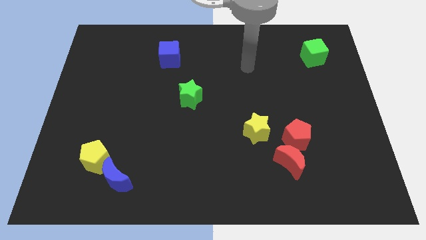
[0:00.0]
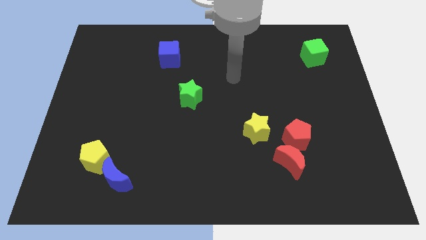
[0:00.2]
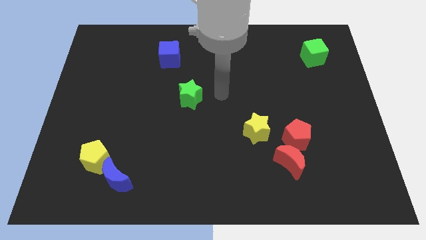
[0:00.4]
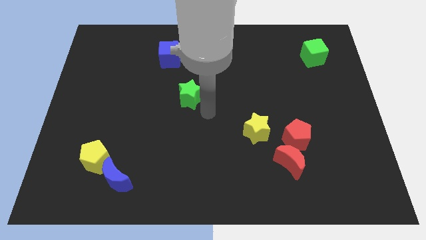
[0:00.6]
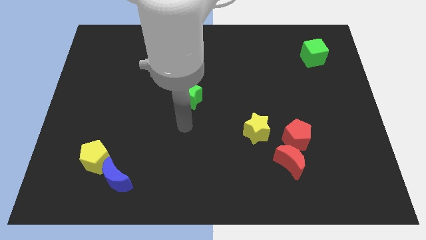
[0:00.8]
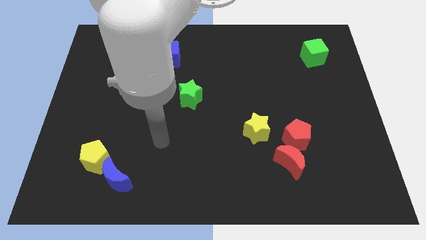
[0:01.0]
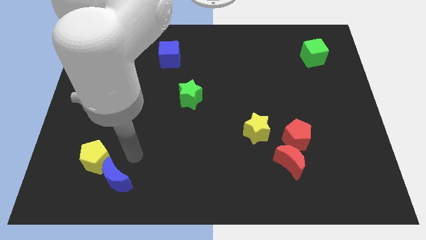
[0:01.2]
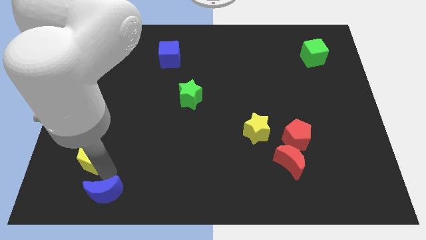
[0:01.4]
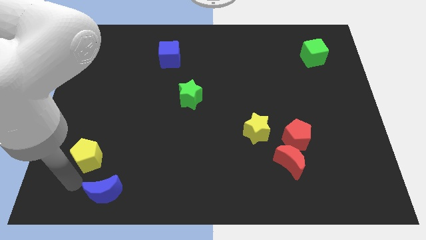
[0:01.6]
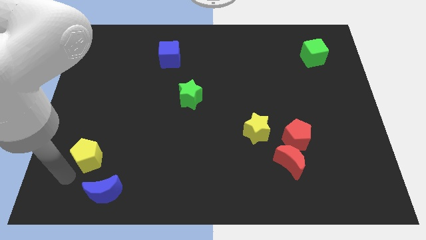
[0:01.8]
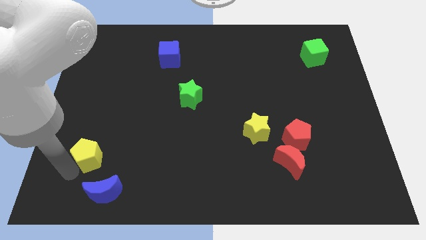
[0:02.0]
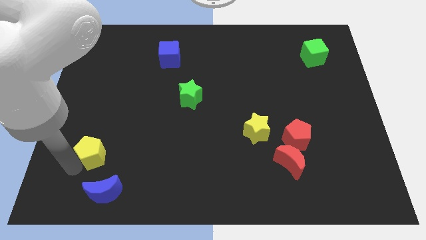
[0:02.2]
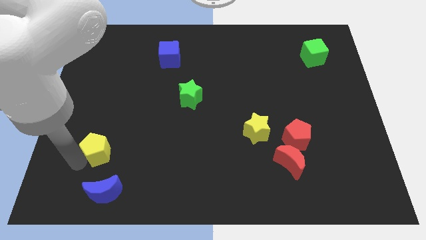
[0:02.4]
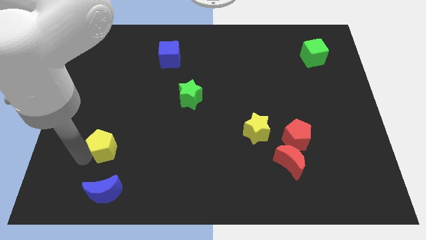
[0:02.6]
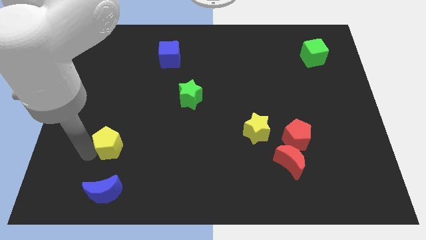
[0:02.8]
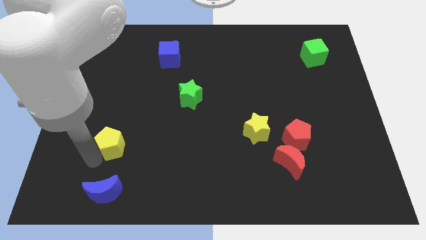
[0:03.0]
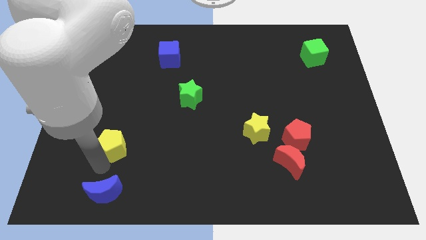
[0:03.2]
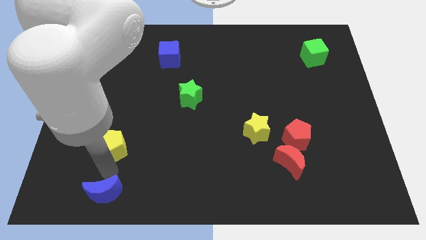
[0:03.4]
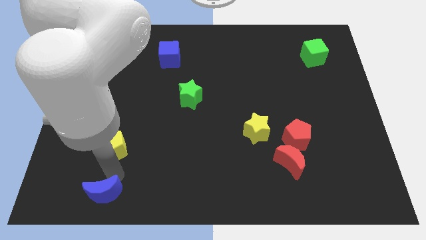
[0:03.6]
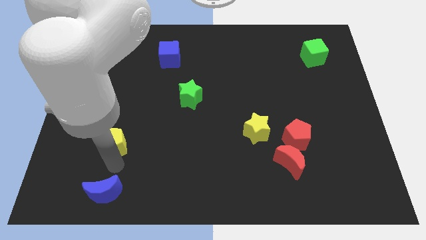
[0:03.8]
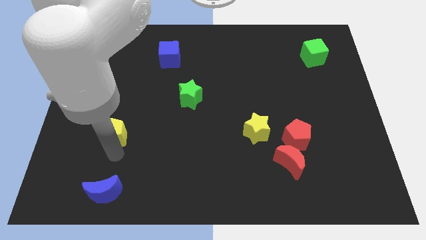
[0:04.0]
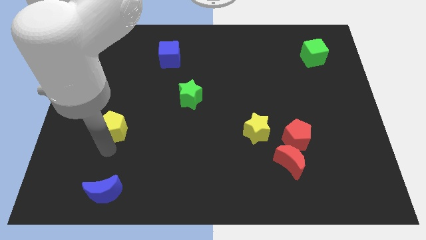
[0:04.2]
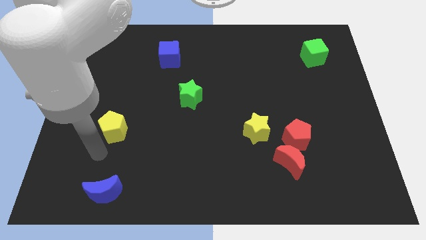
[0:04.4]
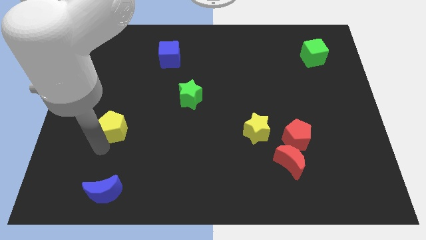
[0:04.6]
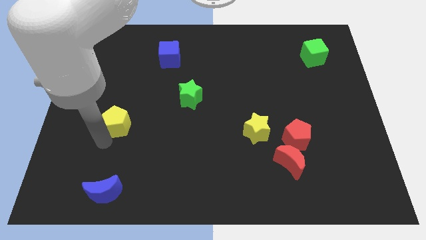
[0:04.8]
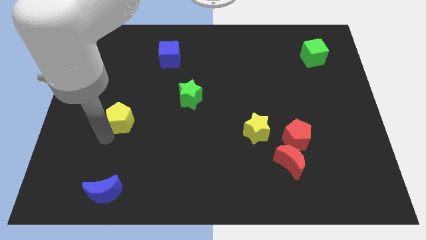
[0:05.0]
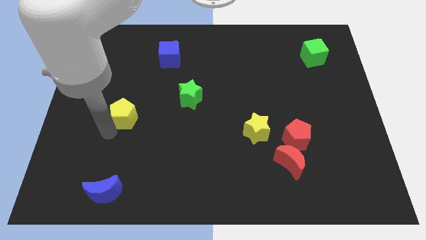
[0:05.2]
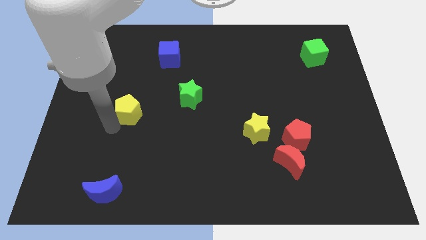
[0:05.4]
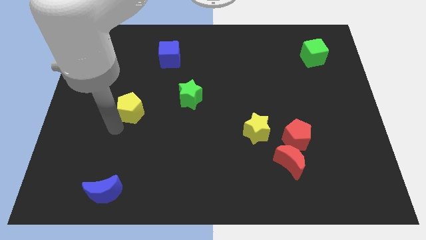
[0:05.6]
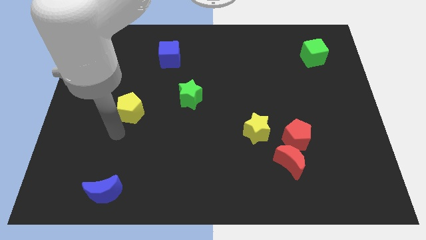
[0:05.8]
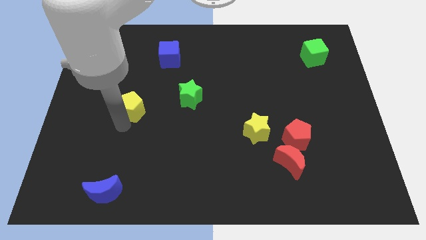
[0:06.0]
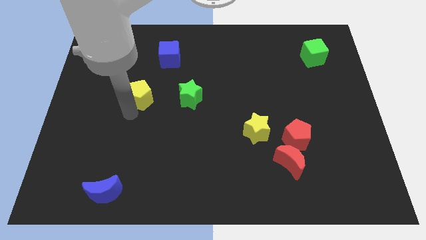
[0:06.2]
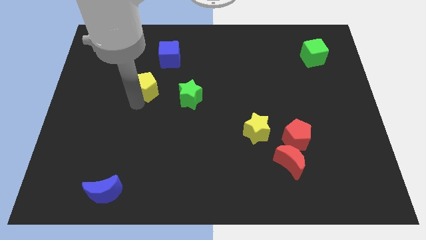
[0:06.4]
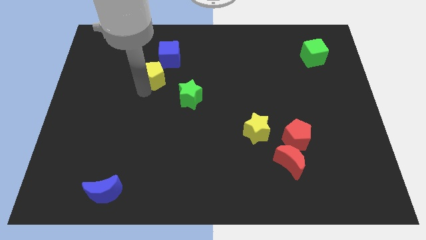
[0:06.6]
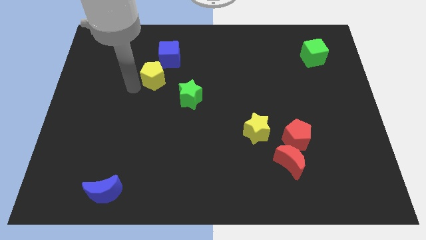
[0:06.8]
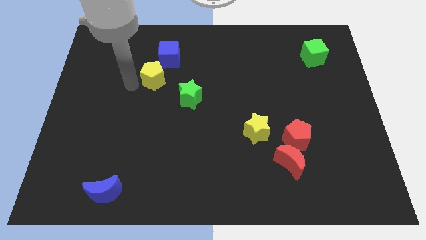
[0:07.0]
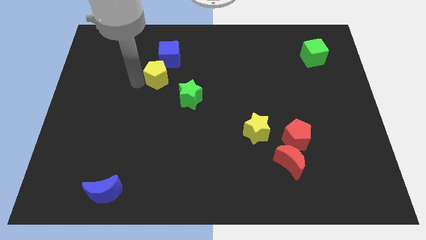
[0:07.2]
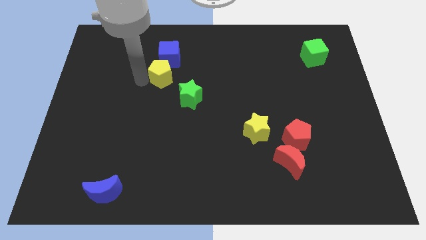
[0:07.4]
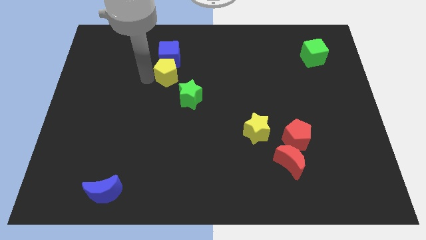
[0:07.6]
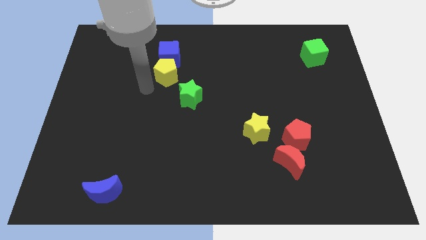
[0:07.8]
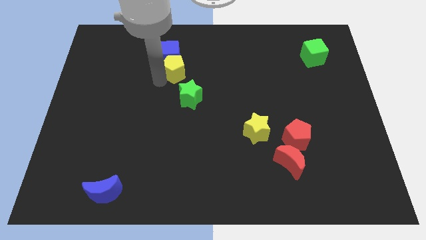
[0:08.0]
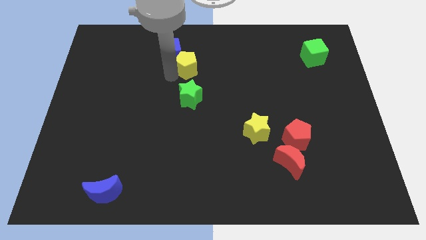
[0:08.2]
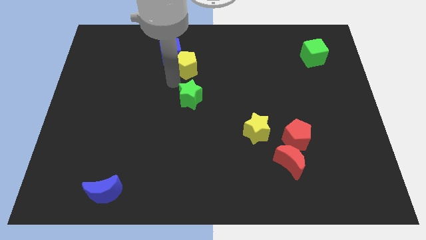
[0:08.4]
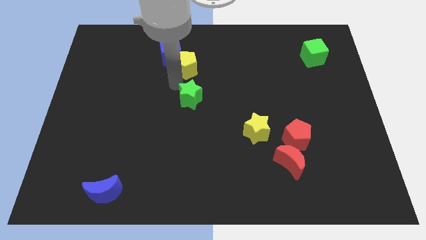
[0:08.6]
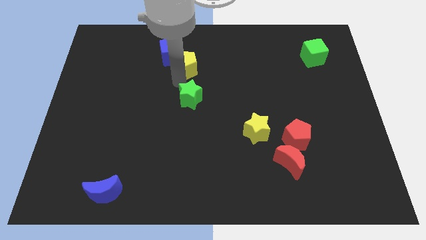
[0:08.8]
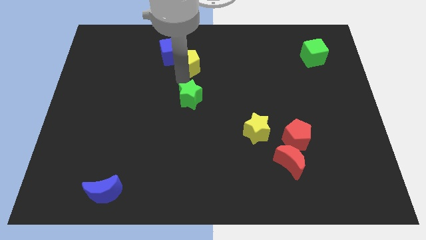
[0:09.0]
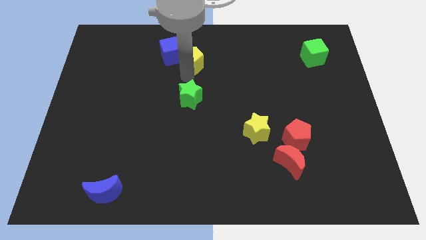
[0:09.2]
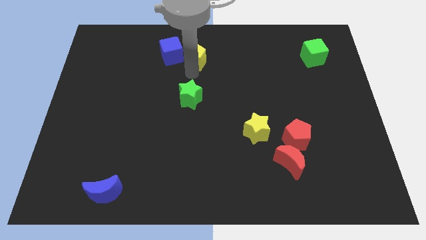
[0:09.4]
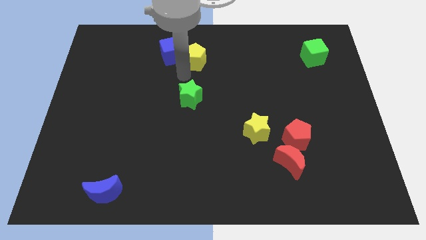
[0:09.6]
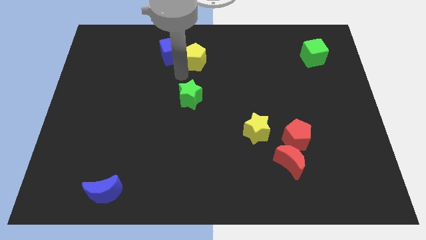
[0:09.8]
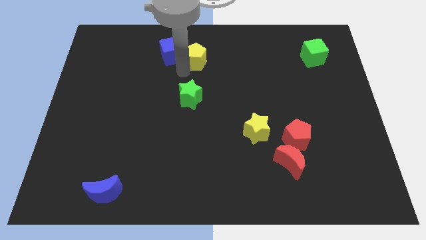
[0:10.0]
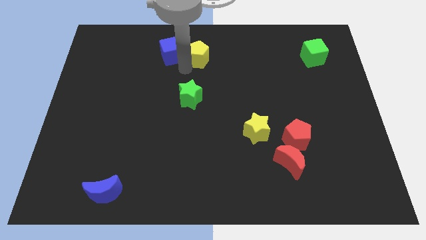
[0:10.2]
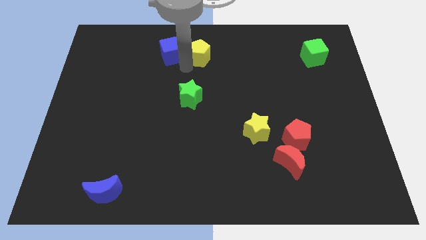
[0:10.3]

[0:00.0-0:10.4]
move the yellow pentagon to the top side
